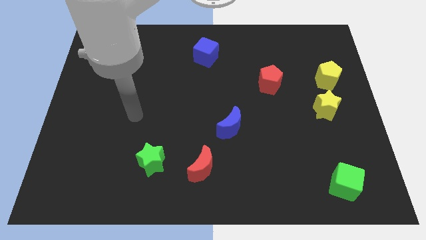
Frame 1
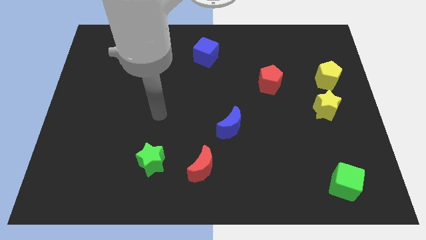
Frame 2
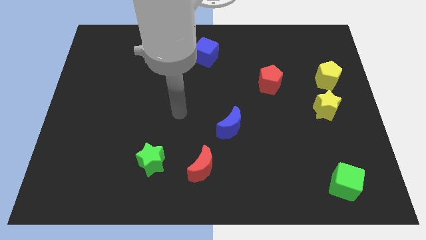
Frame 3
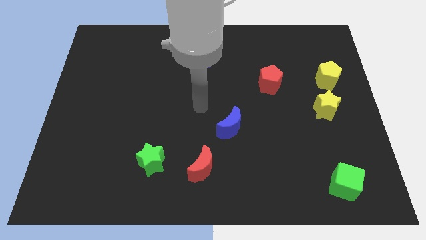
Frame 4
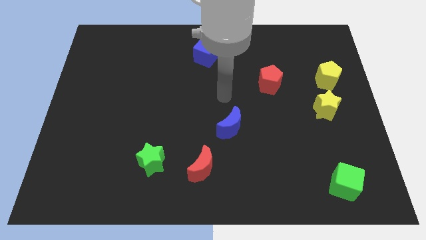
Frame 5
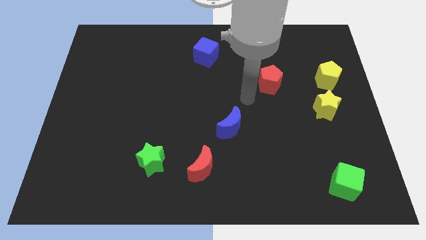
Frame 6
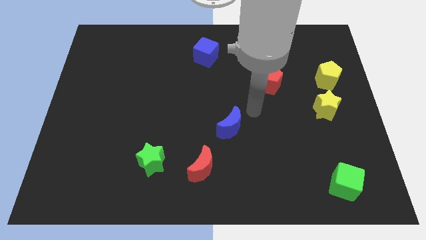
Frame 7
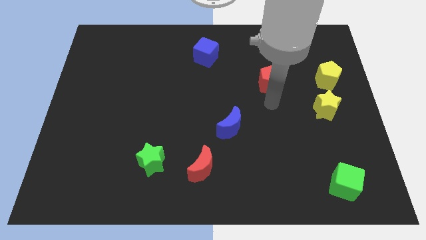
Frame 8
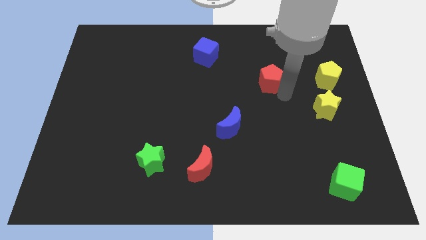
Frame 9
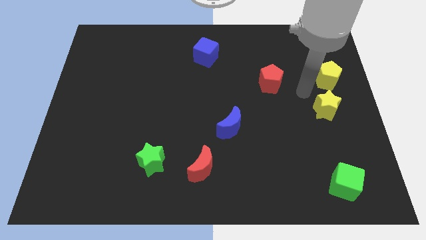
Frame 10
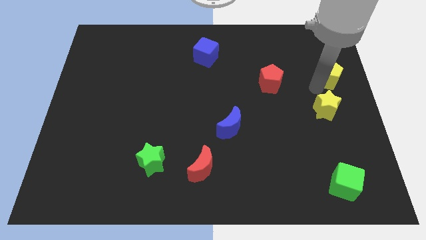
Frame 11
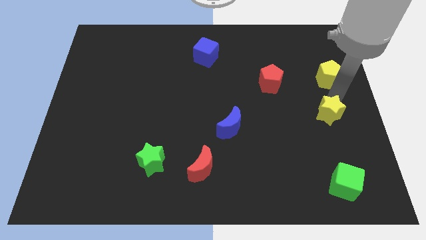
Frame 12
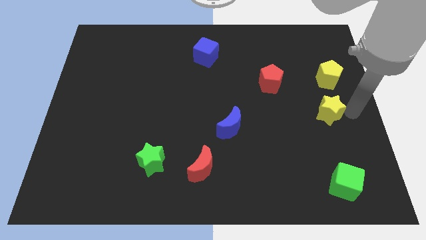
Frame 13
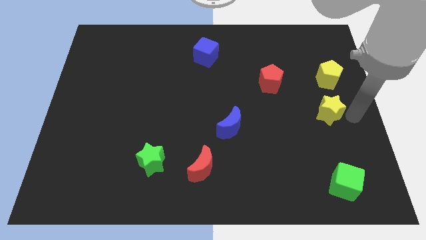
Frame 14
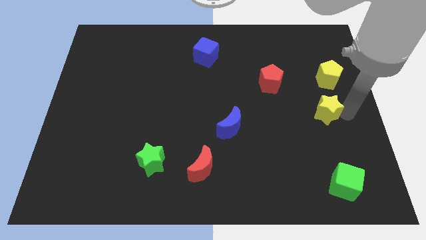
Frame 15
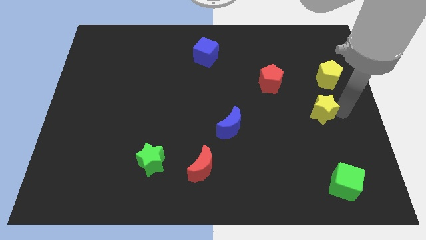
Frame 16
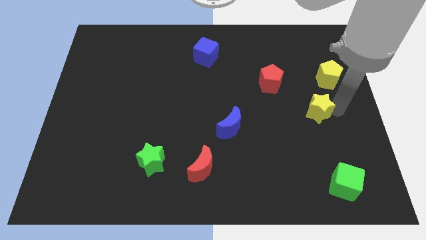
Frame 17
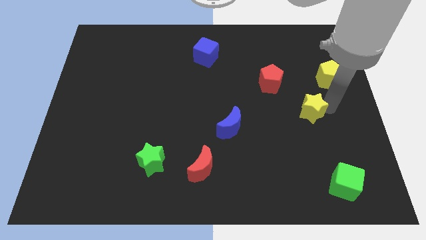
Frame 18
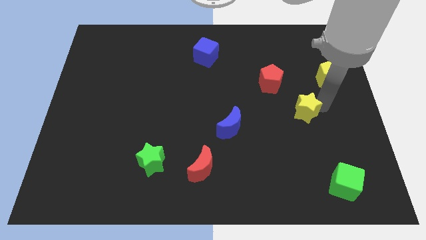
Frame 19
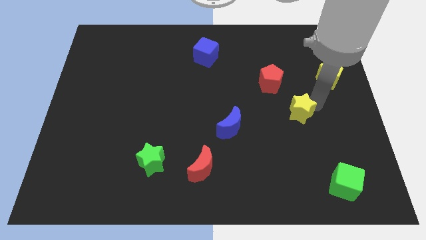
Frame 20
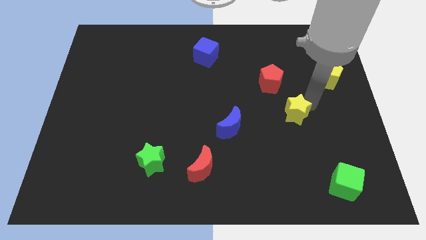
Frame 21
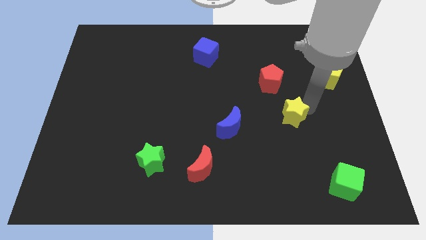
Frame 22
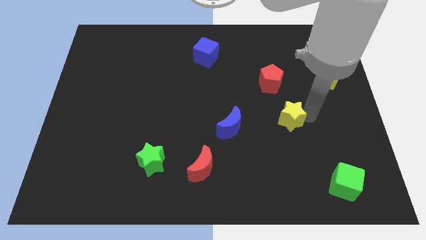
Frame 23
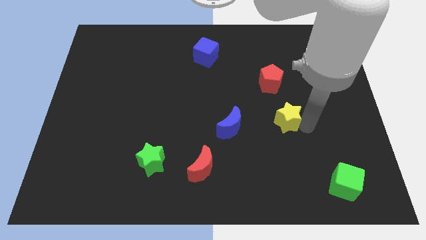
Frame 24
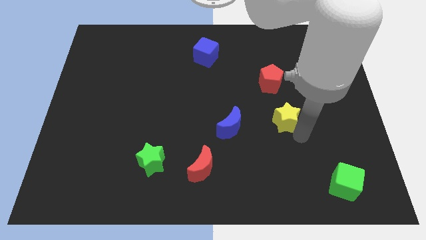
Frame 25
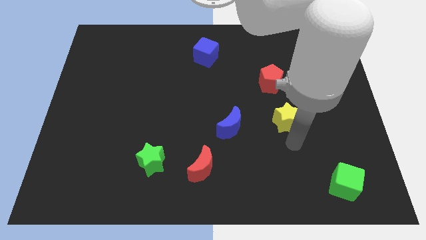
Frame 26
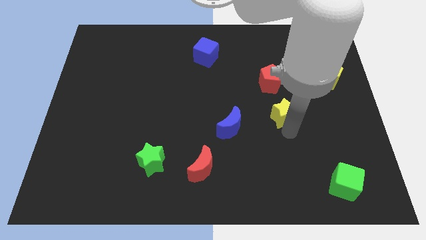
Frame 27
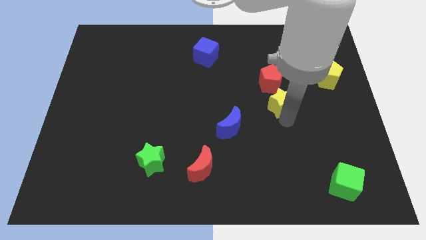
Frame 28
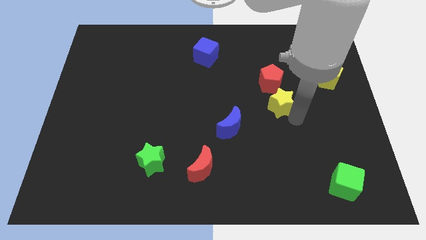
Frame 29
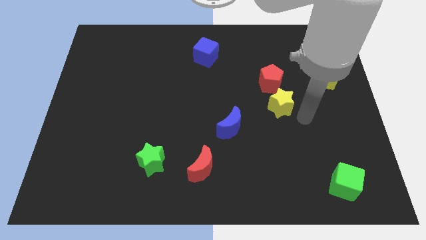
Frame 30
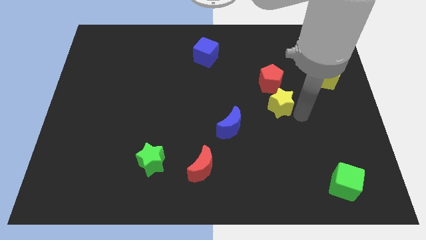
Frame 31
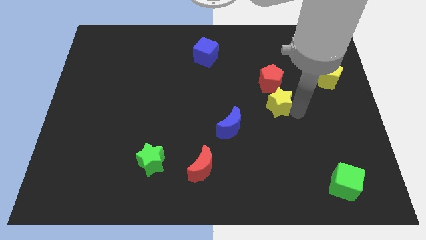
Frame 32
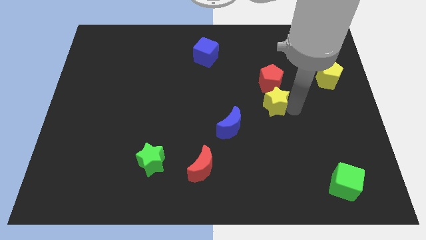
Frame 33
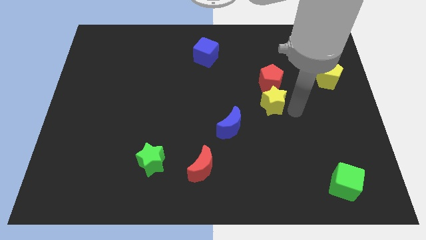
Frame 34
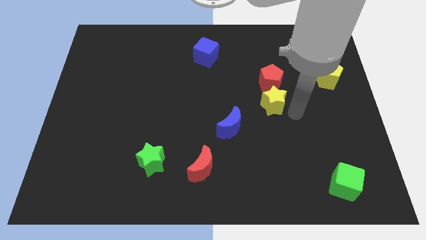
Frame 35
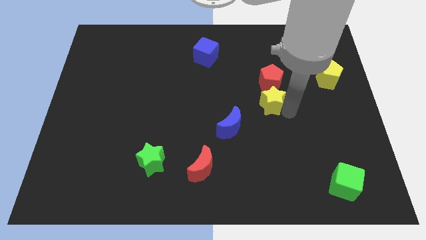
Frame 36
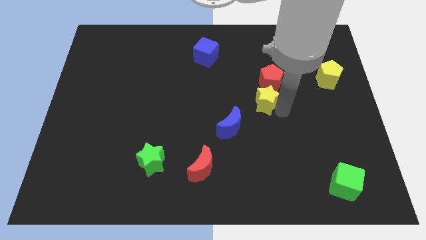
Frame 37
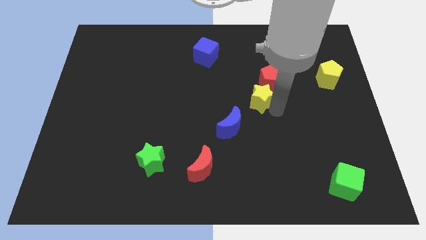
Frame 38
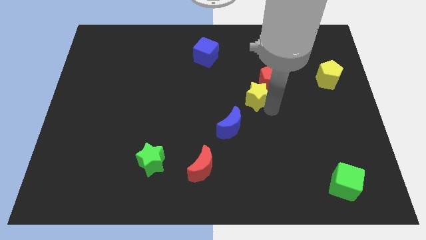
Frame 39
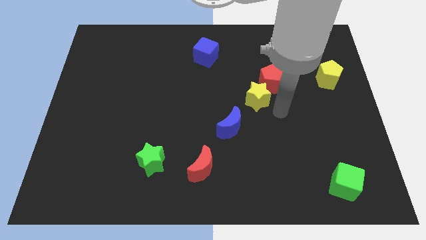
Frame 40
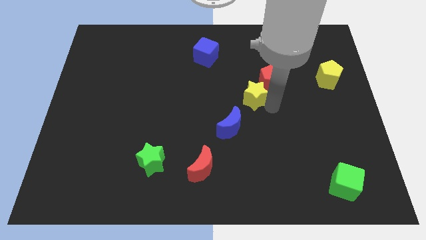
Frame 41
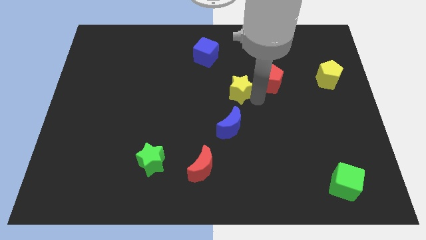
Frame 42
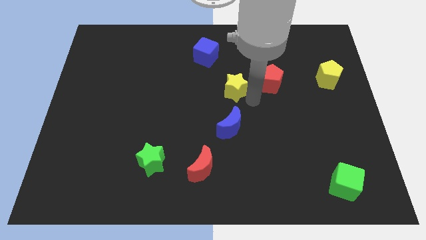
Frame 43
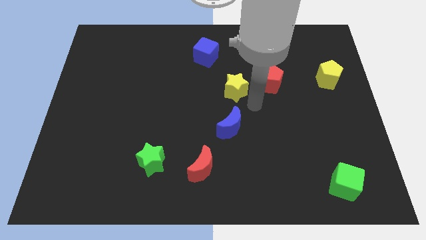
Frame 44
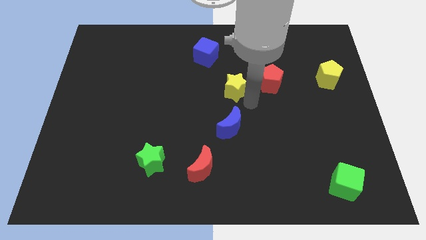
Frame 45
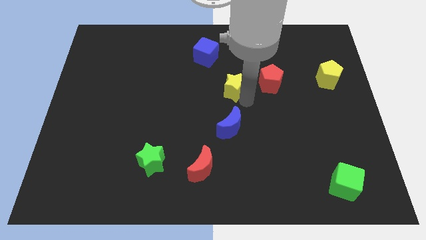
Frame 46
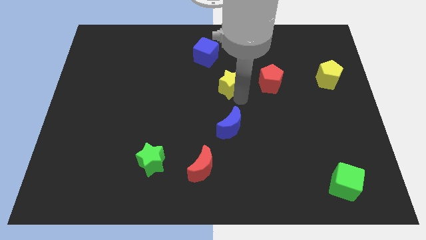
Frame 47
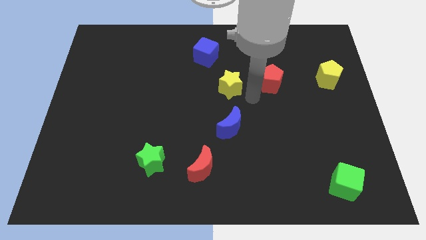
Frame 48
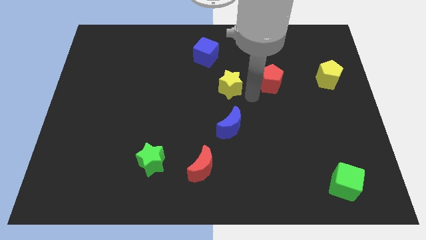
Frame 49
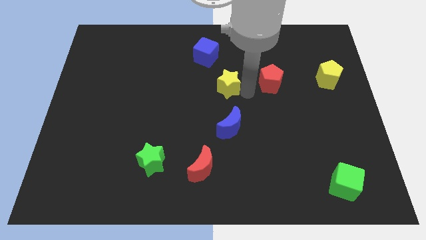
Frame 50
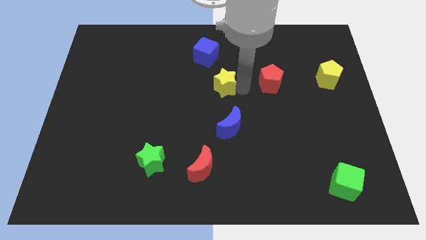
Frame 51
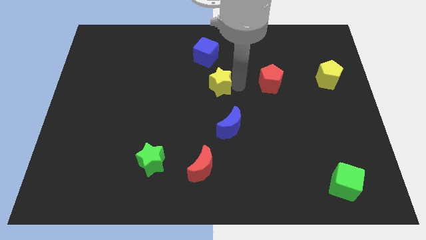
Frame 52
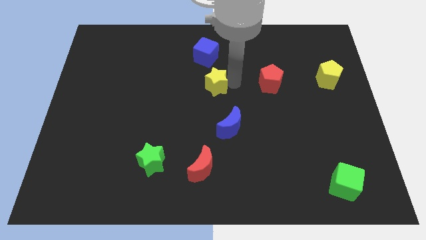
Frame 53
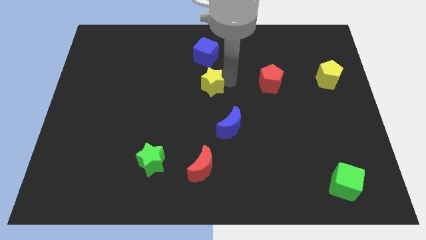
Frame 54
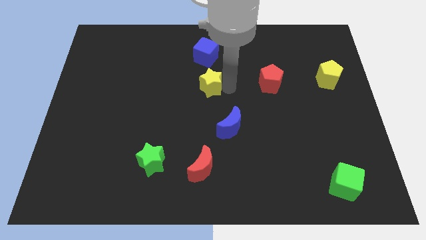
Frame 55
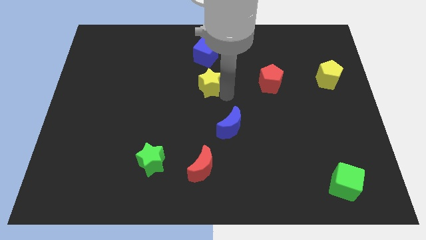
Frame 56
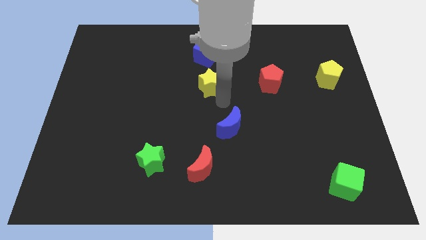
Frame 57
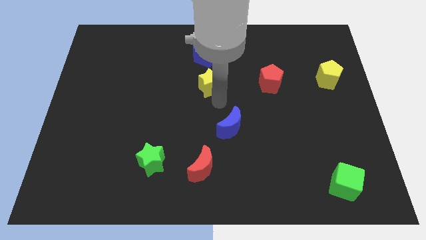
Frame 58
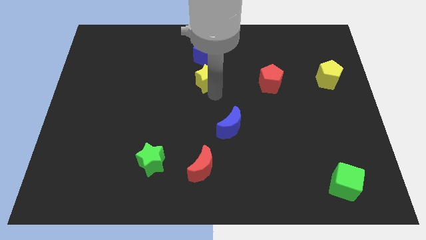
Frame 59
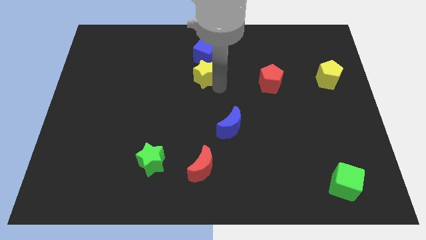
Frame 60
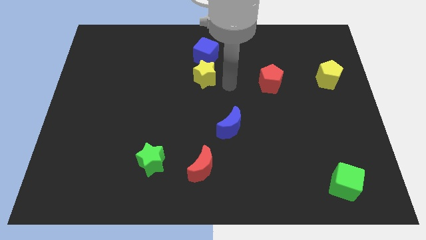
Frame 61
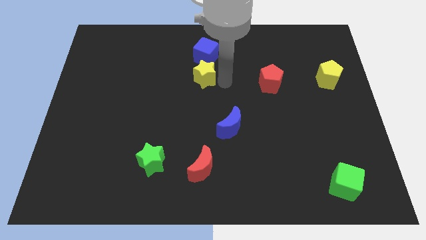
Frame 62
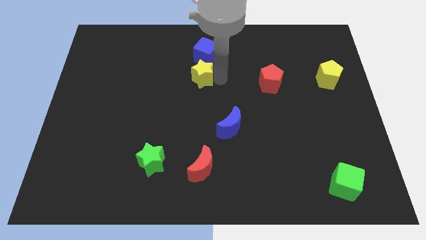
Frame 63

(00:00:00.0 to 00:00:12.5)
push the yellow star diagonally down and to the left of the blue cube

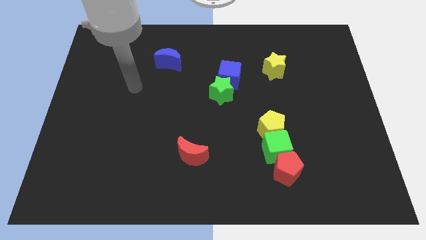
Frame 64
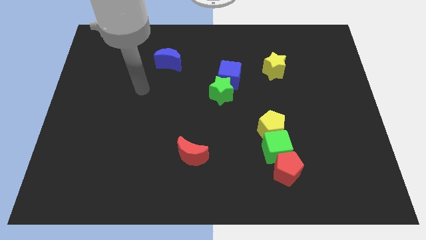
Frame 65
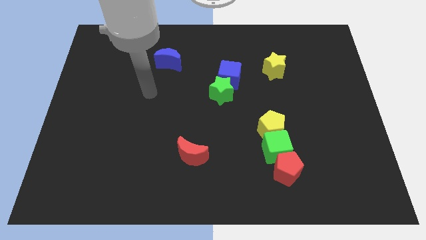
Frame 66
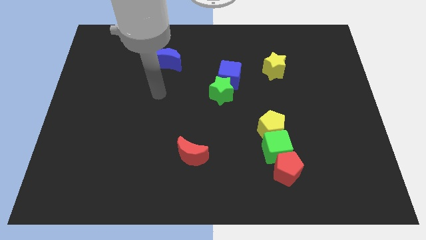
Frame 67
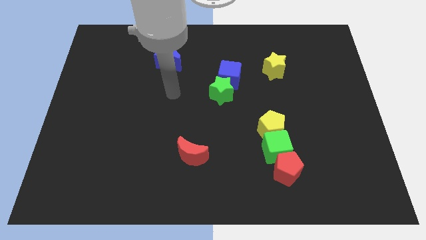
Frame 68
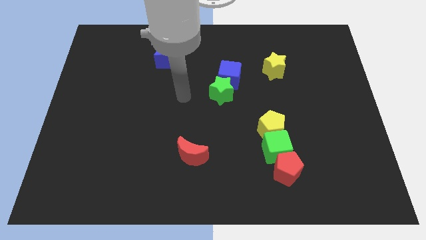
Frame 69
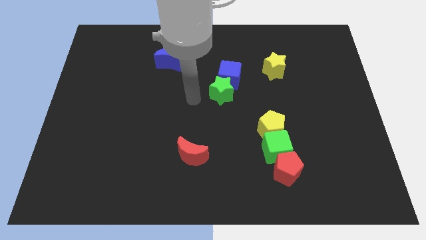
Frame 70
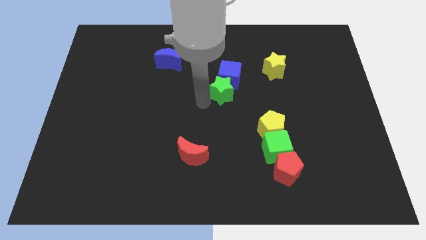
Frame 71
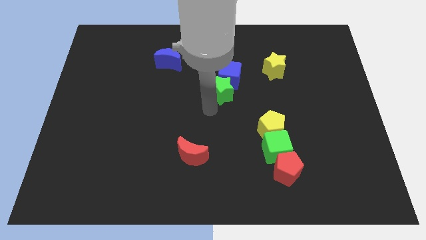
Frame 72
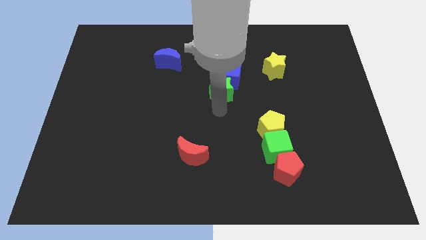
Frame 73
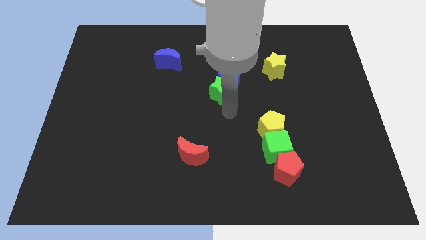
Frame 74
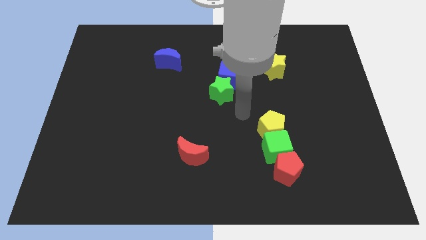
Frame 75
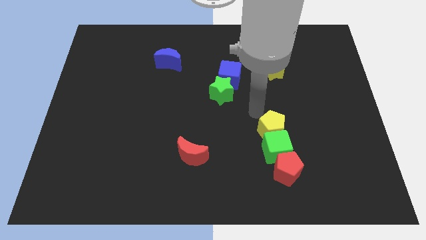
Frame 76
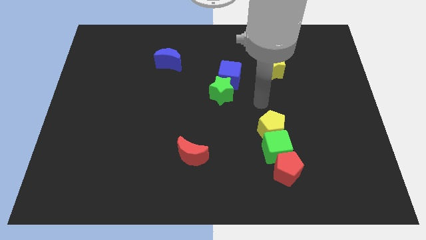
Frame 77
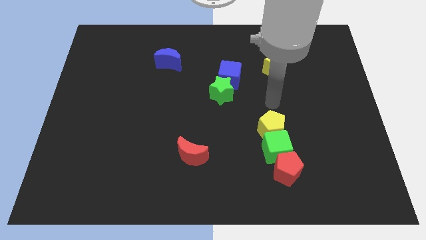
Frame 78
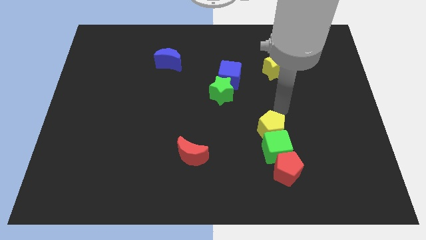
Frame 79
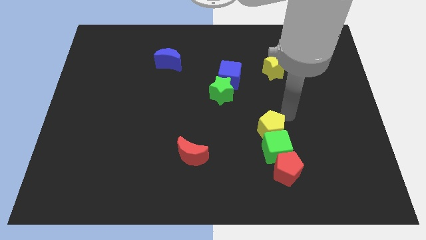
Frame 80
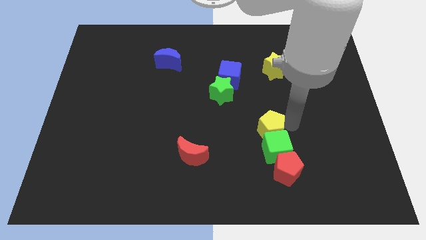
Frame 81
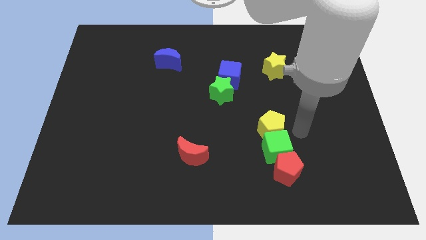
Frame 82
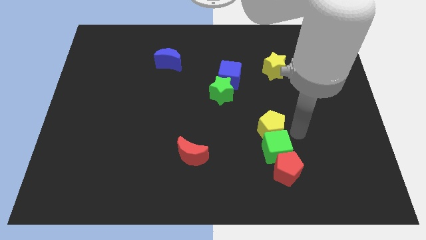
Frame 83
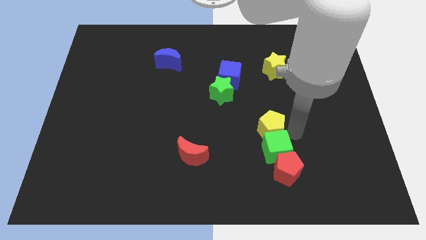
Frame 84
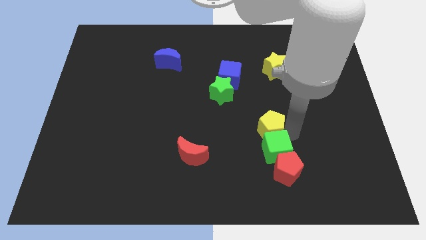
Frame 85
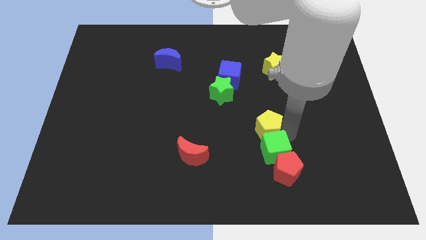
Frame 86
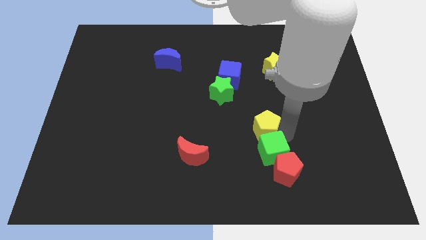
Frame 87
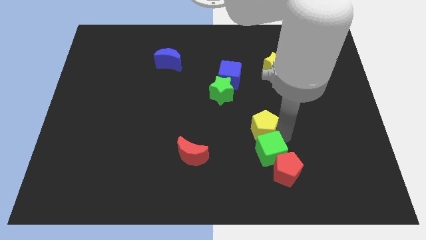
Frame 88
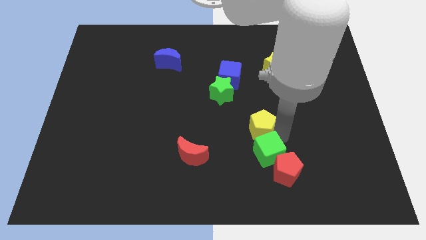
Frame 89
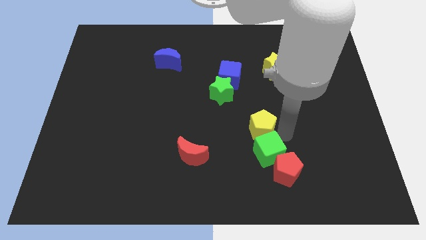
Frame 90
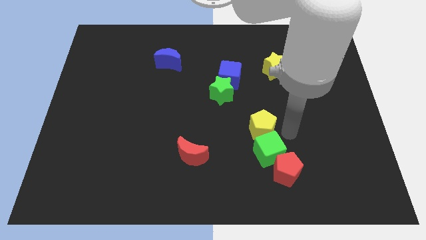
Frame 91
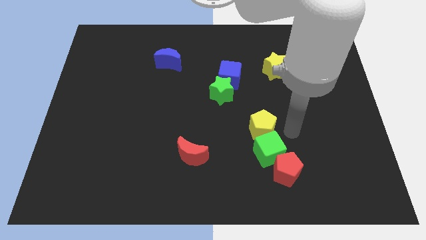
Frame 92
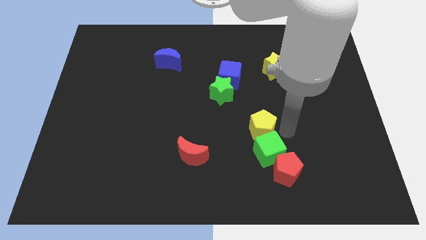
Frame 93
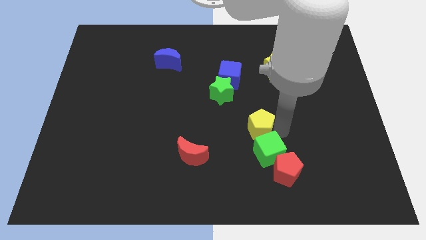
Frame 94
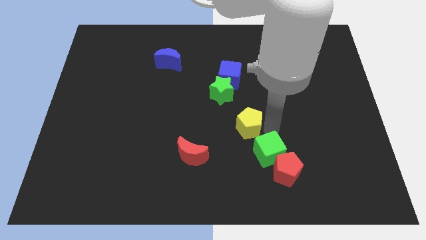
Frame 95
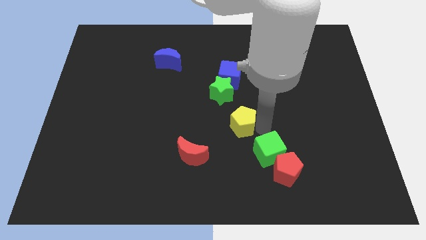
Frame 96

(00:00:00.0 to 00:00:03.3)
put the yellow pentagon below the green star
